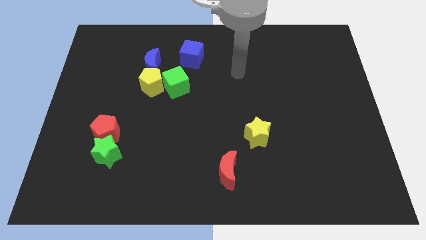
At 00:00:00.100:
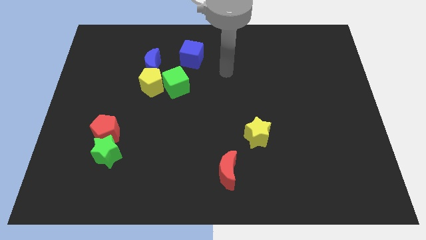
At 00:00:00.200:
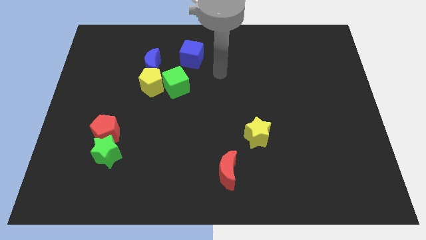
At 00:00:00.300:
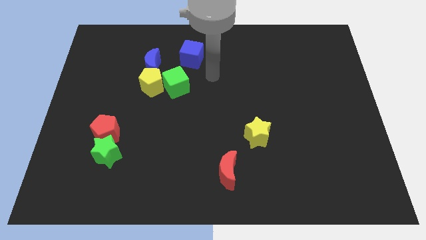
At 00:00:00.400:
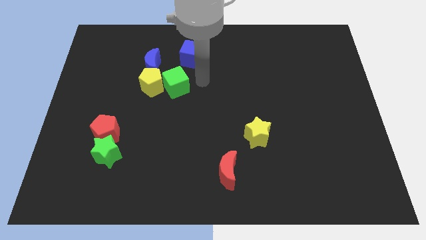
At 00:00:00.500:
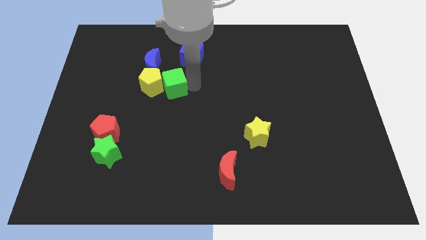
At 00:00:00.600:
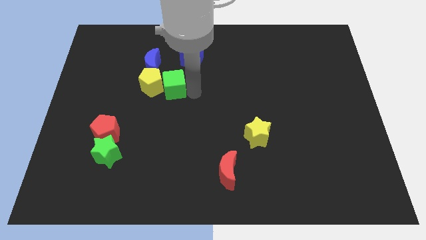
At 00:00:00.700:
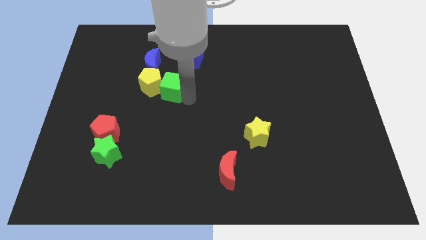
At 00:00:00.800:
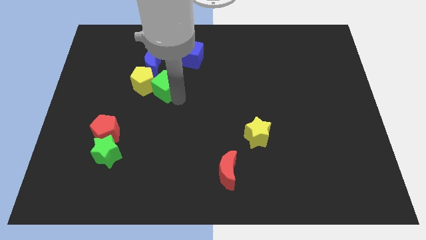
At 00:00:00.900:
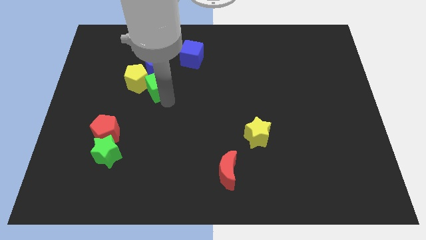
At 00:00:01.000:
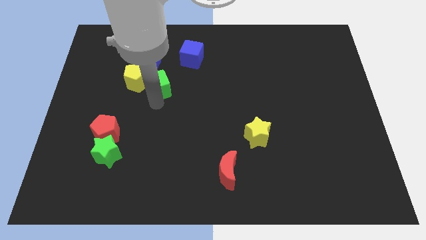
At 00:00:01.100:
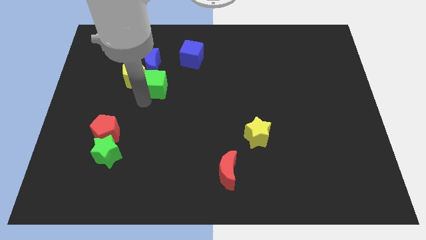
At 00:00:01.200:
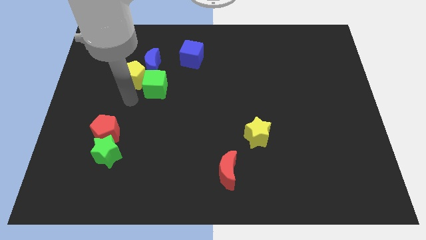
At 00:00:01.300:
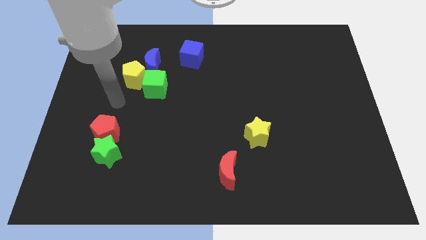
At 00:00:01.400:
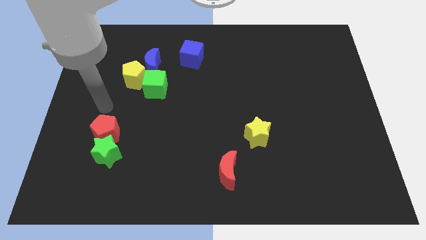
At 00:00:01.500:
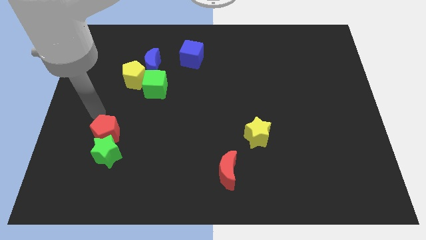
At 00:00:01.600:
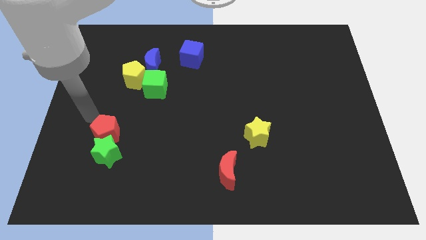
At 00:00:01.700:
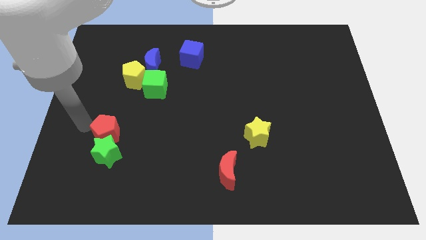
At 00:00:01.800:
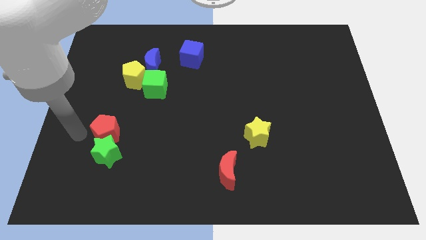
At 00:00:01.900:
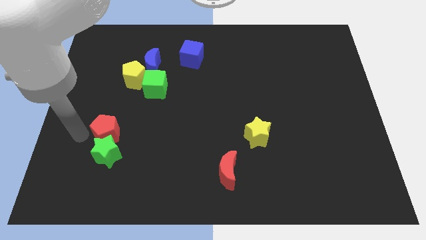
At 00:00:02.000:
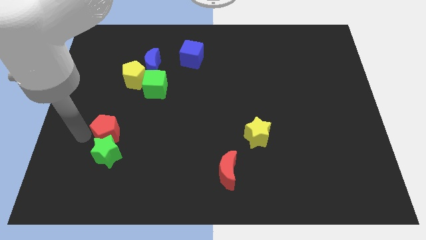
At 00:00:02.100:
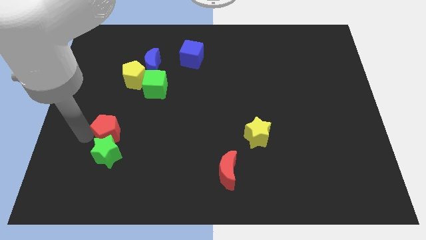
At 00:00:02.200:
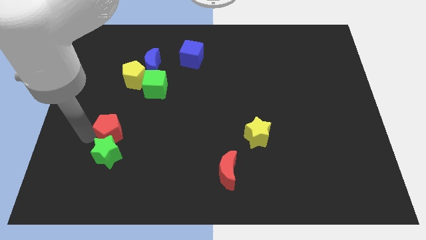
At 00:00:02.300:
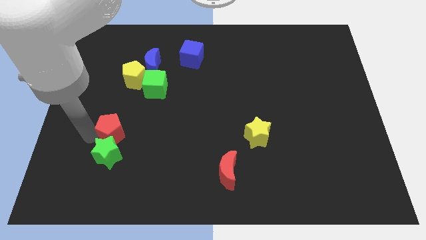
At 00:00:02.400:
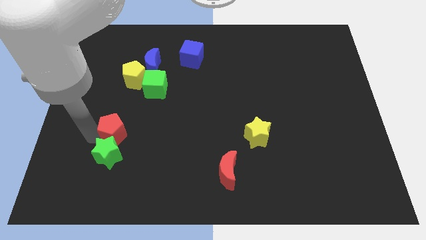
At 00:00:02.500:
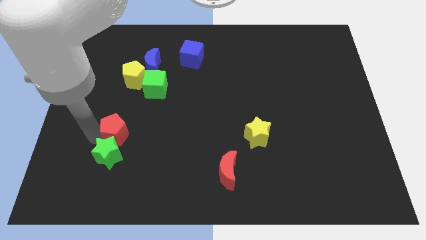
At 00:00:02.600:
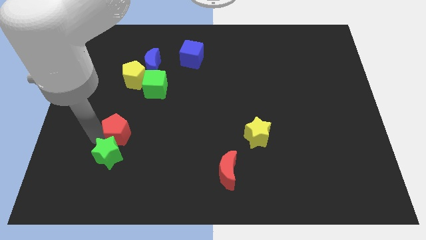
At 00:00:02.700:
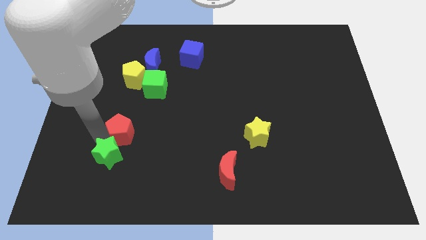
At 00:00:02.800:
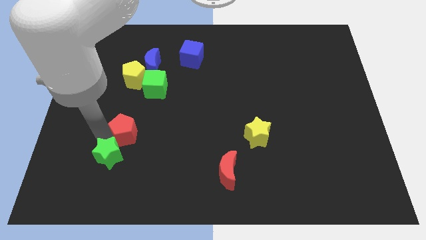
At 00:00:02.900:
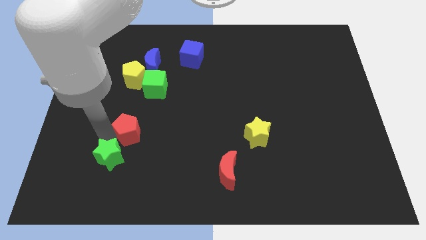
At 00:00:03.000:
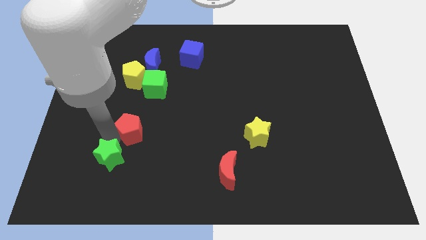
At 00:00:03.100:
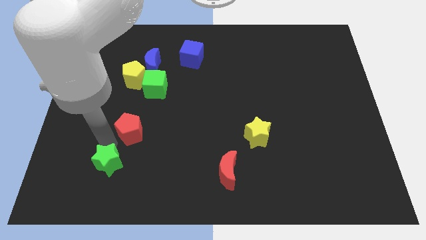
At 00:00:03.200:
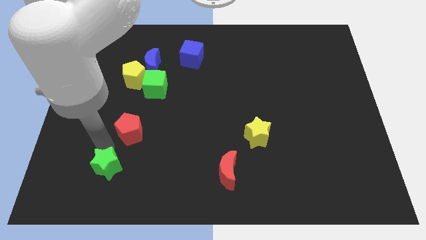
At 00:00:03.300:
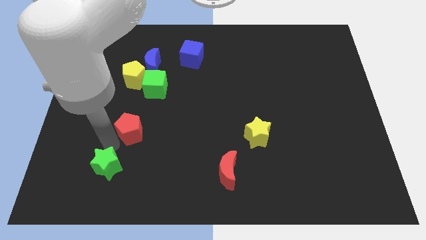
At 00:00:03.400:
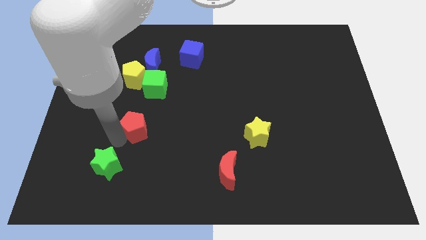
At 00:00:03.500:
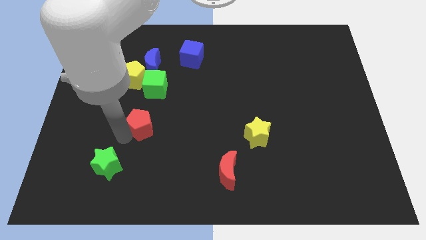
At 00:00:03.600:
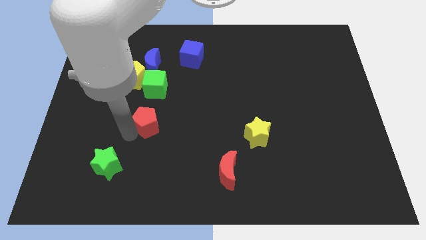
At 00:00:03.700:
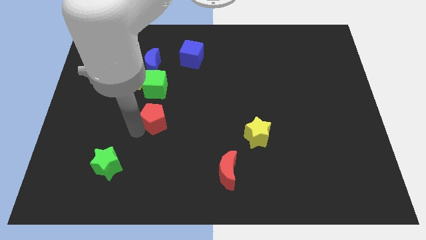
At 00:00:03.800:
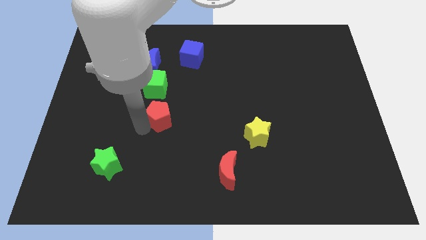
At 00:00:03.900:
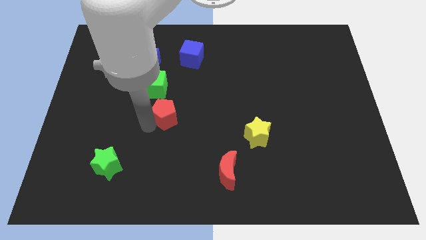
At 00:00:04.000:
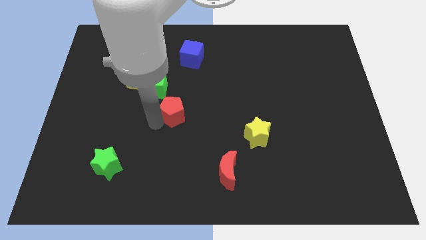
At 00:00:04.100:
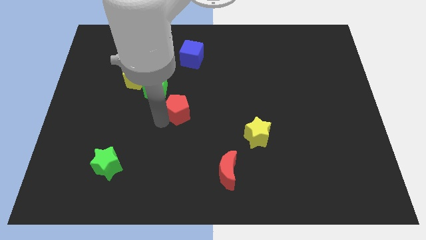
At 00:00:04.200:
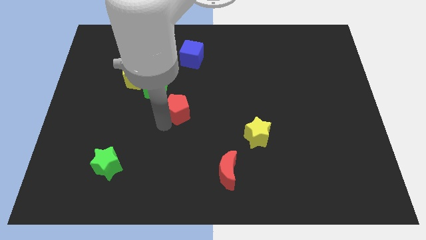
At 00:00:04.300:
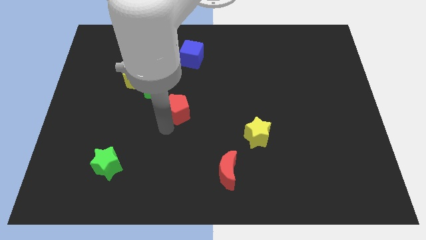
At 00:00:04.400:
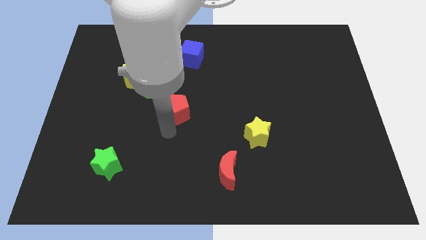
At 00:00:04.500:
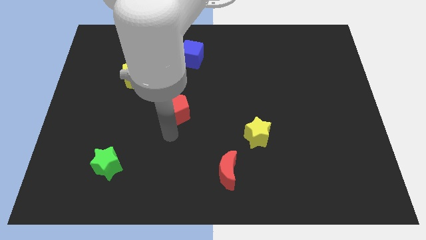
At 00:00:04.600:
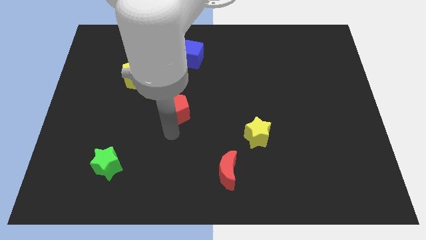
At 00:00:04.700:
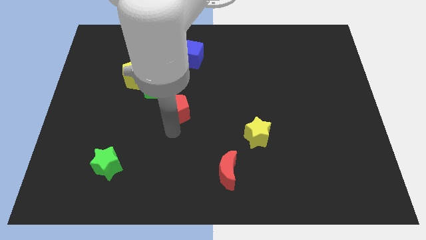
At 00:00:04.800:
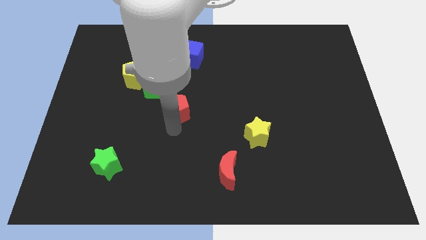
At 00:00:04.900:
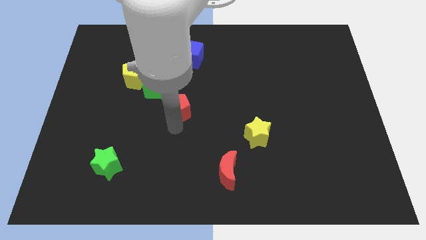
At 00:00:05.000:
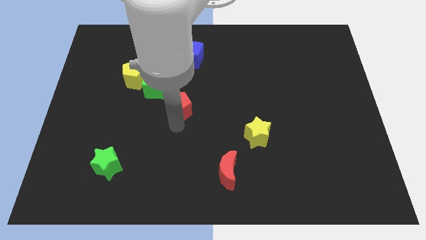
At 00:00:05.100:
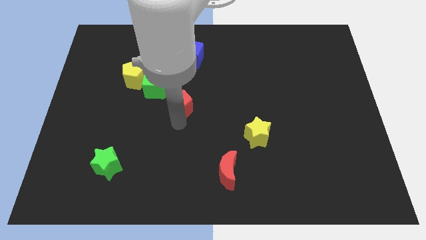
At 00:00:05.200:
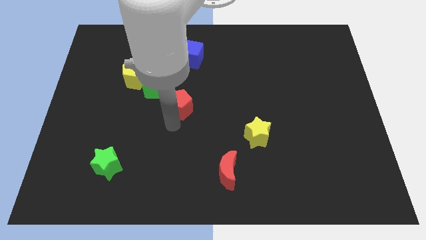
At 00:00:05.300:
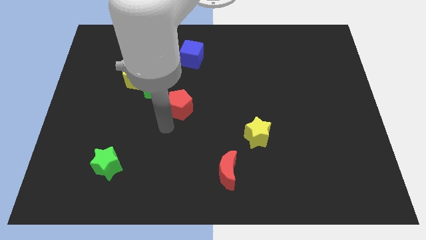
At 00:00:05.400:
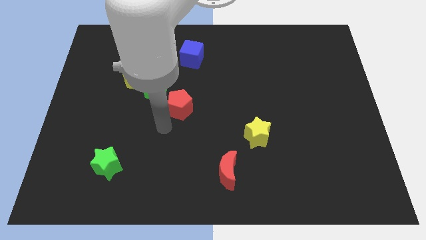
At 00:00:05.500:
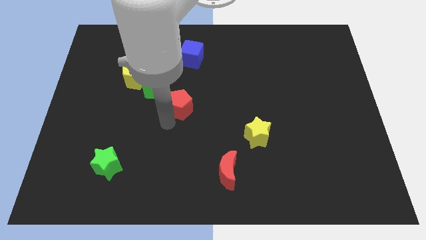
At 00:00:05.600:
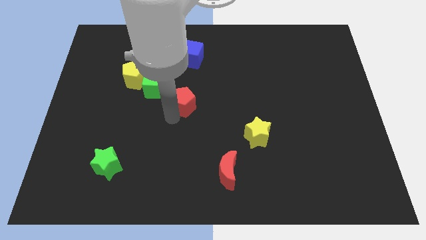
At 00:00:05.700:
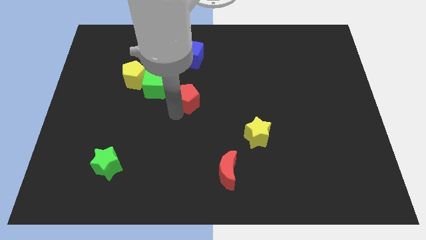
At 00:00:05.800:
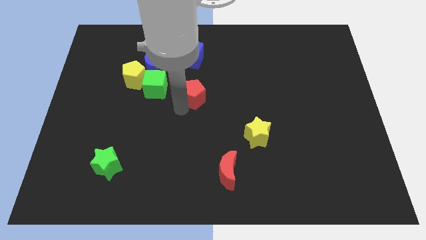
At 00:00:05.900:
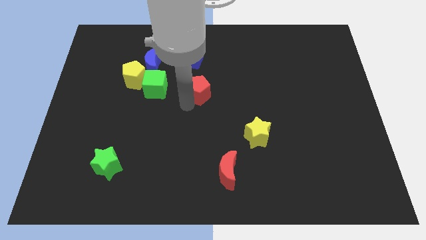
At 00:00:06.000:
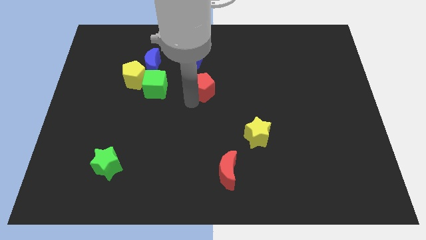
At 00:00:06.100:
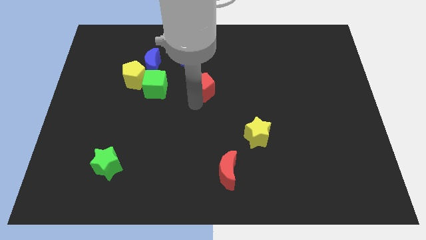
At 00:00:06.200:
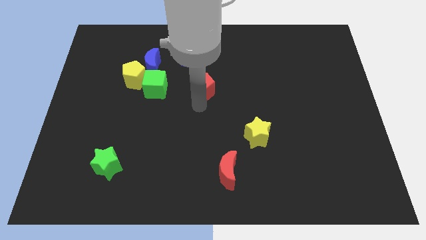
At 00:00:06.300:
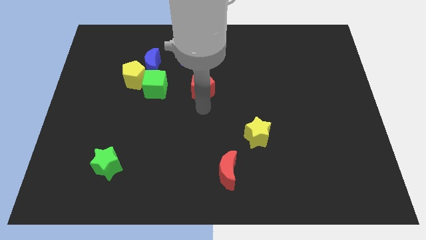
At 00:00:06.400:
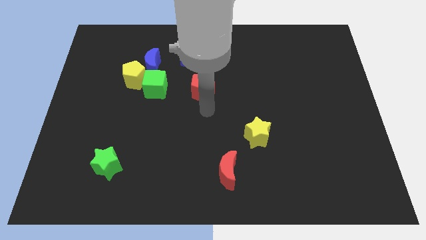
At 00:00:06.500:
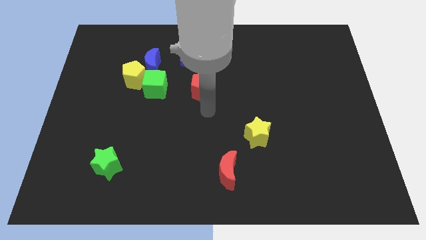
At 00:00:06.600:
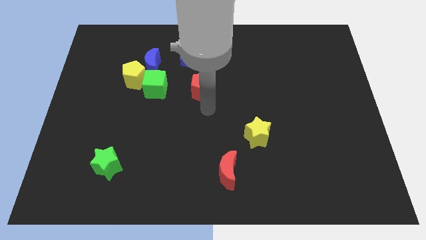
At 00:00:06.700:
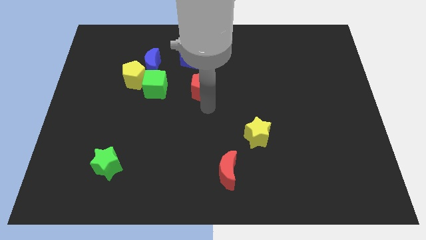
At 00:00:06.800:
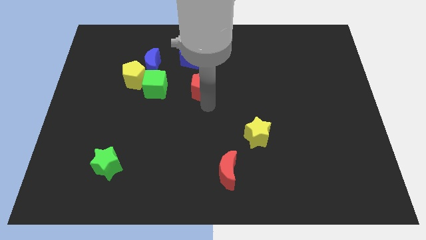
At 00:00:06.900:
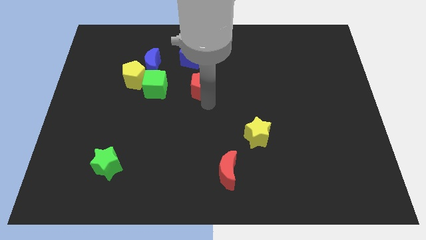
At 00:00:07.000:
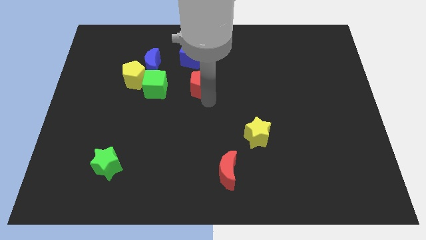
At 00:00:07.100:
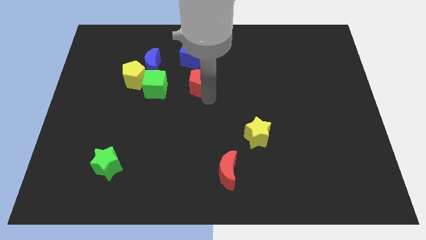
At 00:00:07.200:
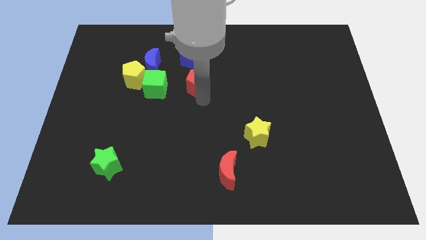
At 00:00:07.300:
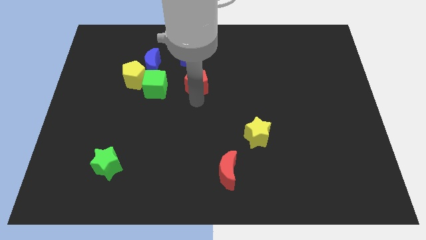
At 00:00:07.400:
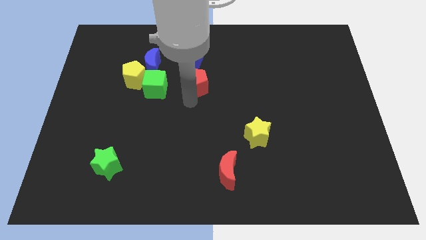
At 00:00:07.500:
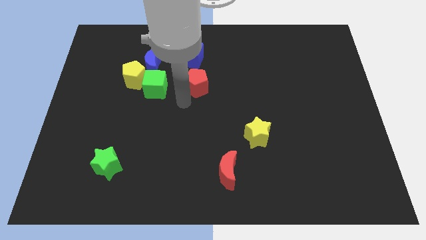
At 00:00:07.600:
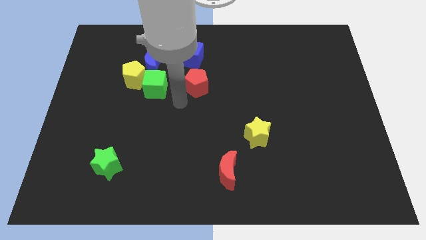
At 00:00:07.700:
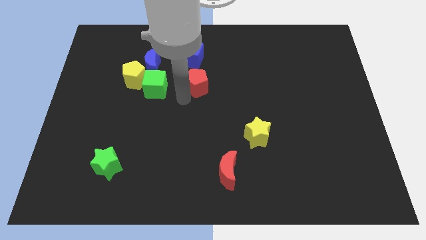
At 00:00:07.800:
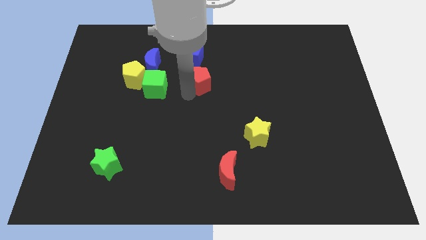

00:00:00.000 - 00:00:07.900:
push the red pentagon to the bottom right side of the blue cube

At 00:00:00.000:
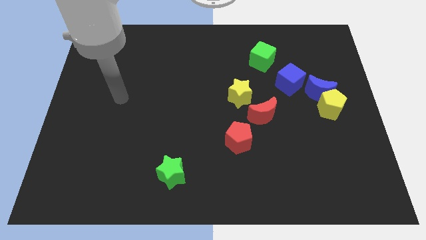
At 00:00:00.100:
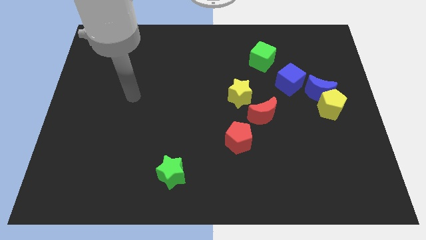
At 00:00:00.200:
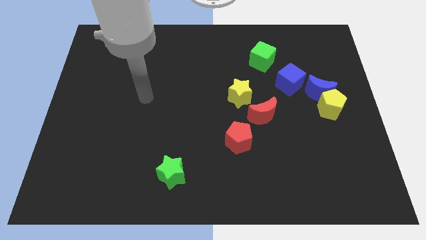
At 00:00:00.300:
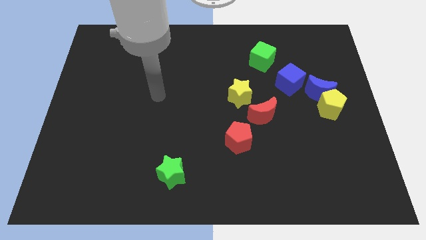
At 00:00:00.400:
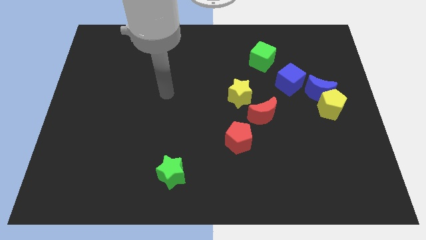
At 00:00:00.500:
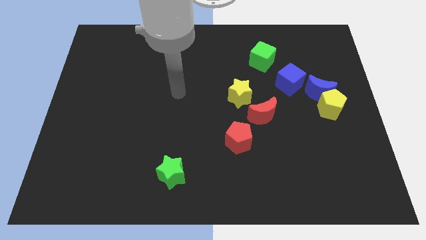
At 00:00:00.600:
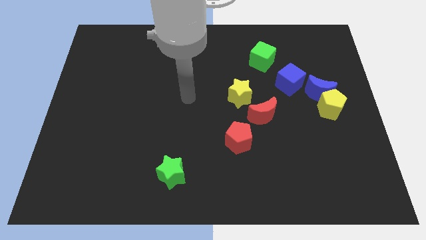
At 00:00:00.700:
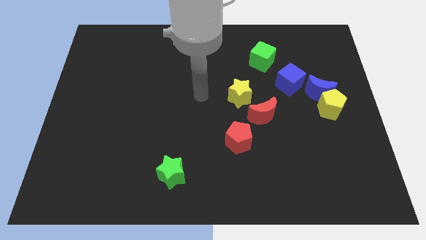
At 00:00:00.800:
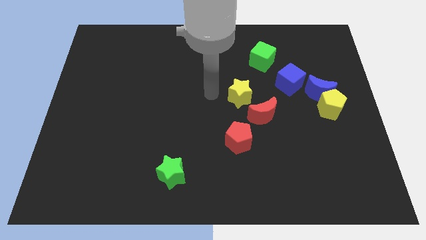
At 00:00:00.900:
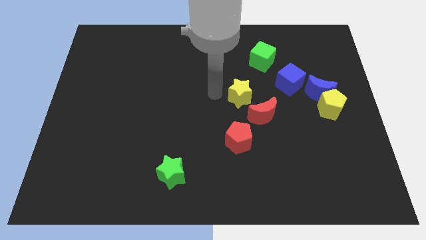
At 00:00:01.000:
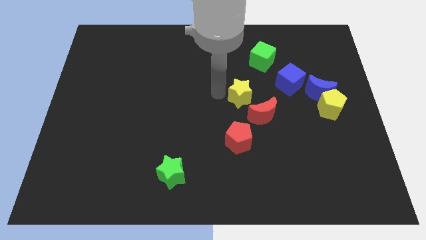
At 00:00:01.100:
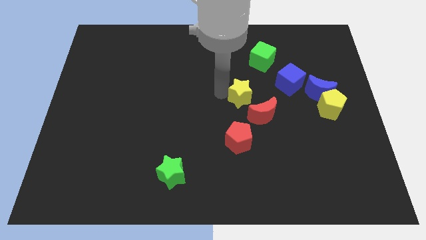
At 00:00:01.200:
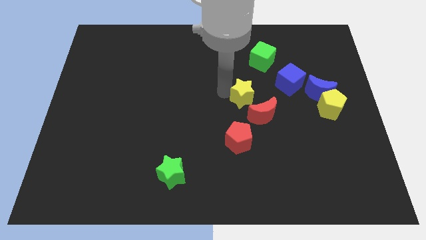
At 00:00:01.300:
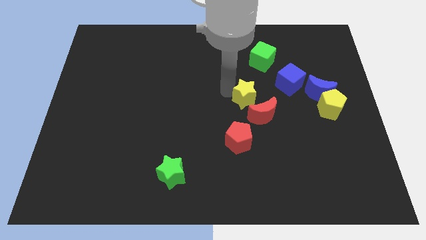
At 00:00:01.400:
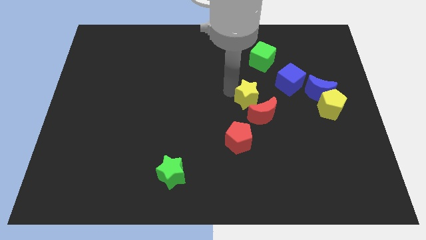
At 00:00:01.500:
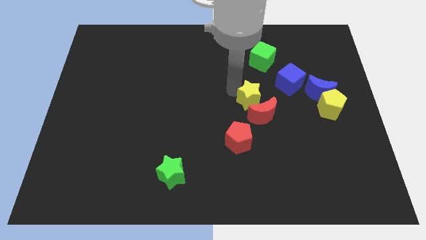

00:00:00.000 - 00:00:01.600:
push the yellow star diagonally down and to the left of the blue cube
